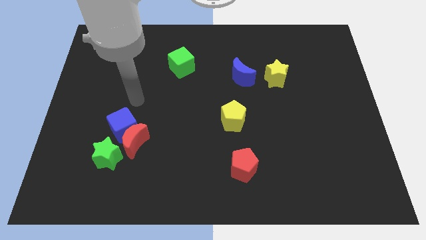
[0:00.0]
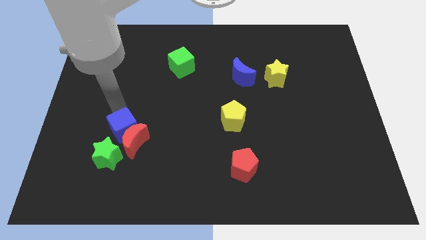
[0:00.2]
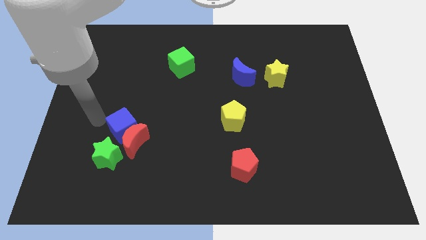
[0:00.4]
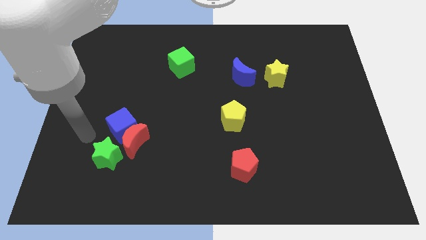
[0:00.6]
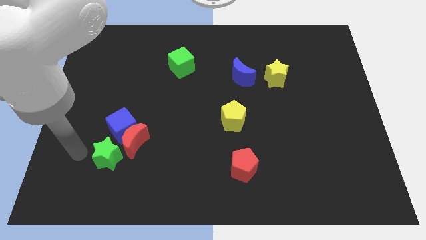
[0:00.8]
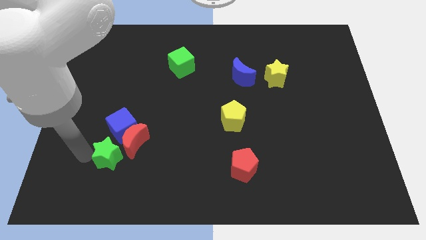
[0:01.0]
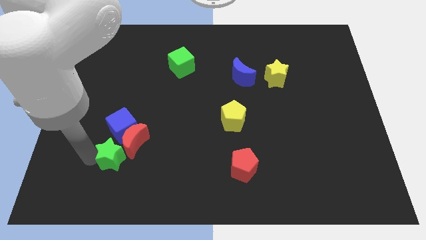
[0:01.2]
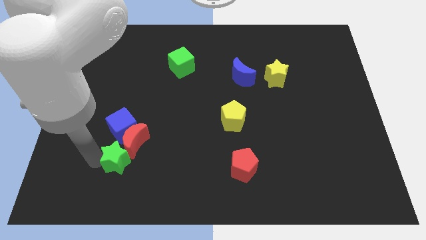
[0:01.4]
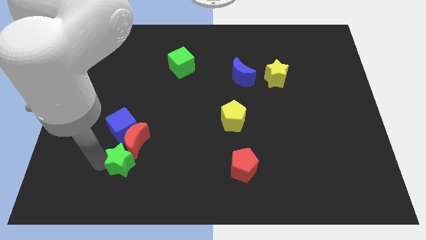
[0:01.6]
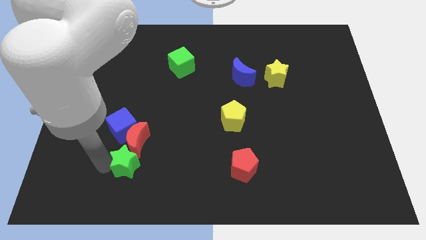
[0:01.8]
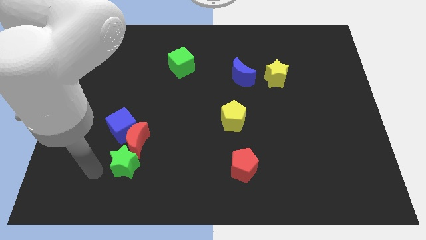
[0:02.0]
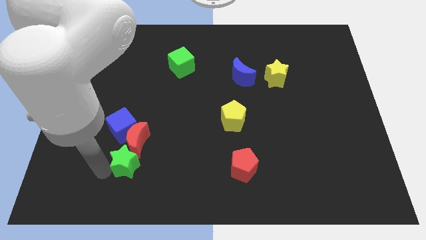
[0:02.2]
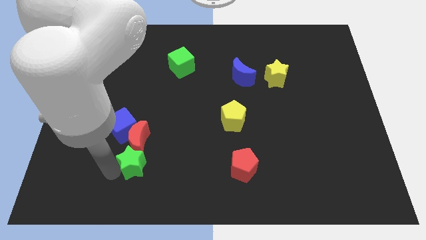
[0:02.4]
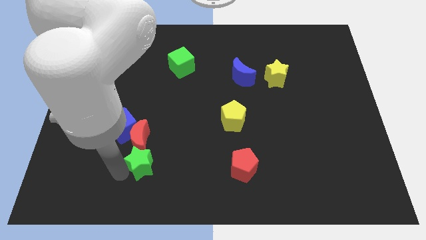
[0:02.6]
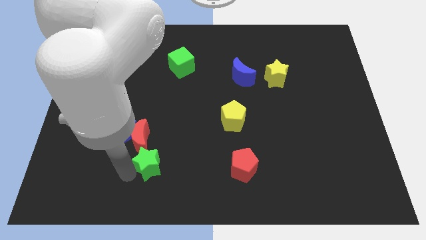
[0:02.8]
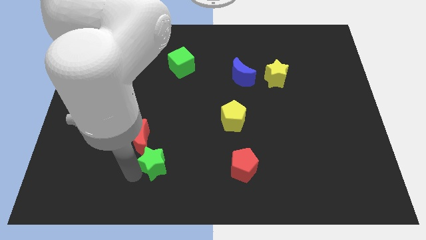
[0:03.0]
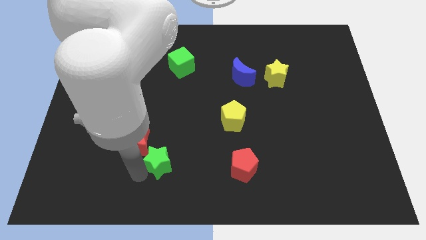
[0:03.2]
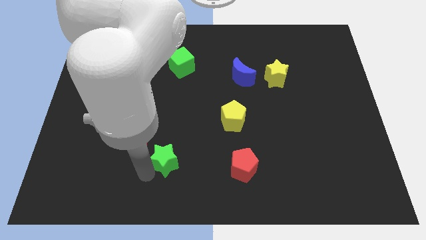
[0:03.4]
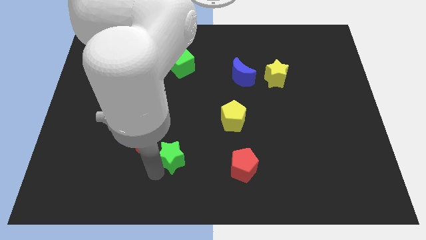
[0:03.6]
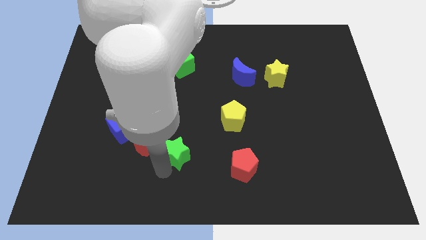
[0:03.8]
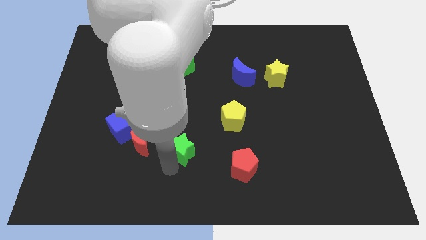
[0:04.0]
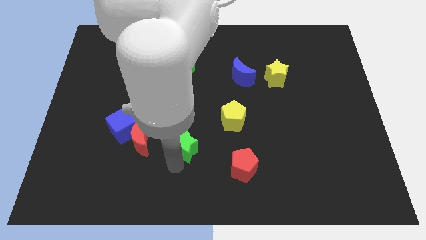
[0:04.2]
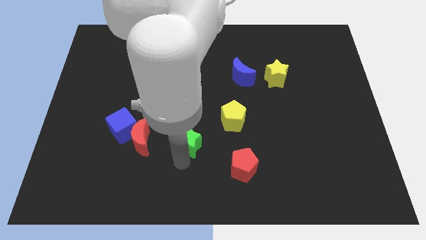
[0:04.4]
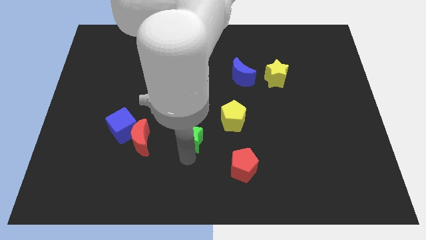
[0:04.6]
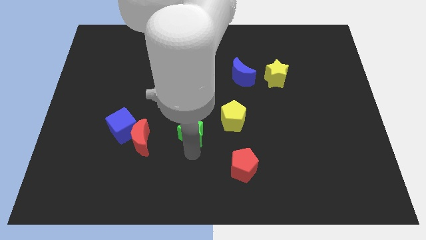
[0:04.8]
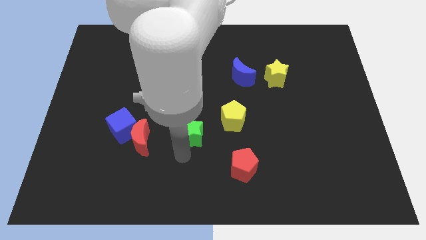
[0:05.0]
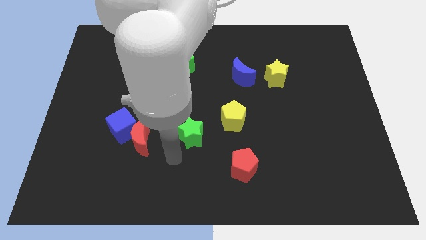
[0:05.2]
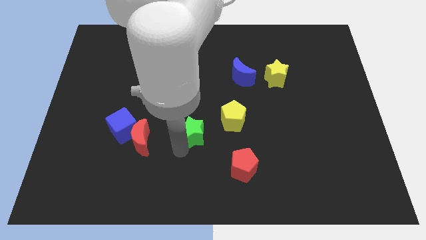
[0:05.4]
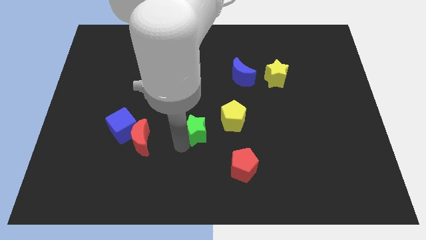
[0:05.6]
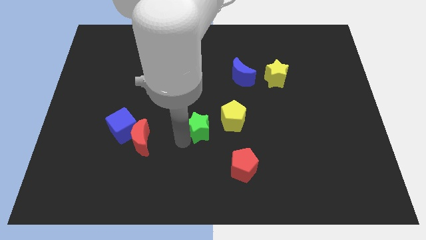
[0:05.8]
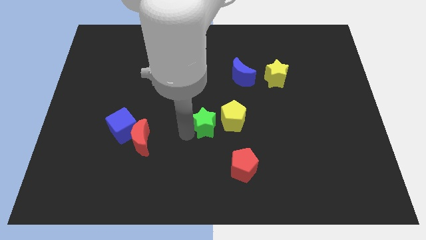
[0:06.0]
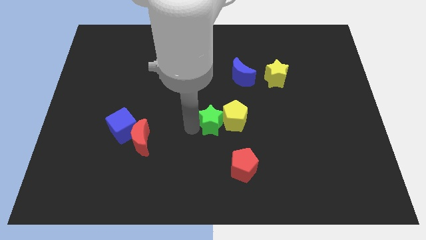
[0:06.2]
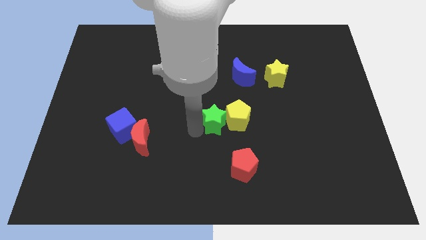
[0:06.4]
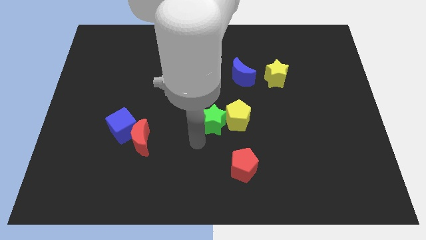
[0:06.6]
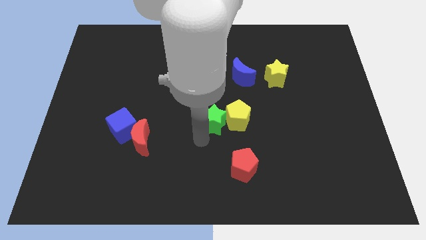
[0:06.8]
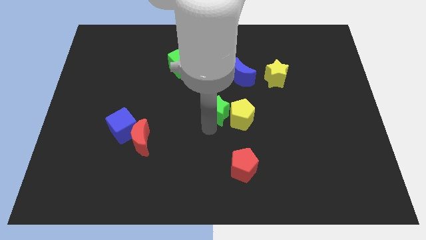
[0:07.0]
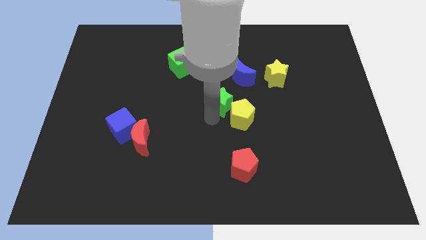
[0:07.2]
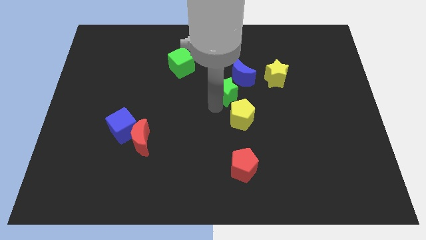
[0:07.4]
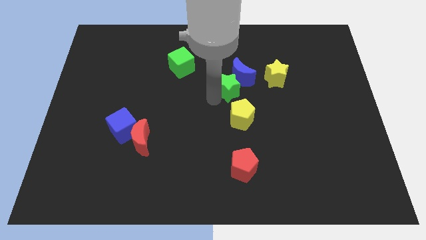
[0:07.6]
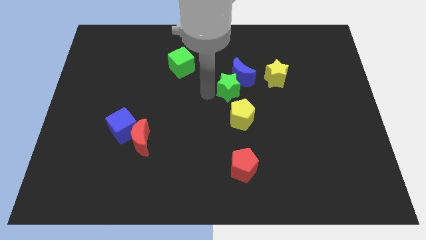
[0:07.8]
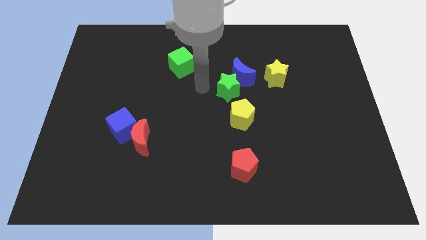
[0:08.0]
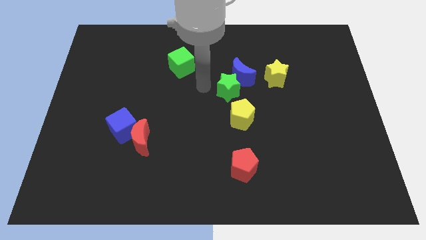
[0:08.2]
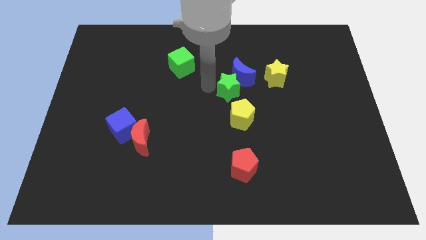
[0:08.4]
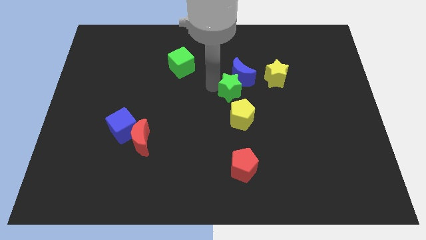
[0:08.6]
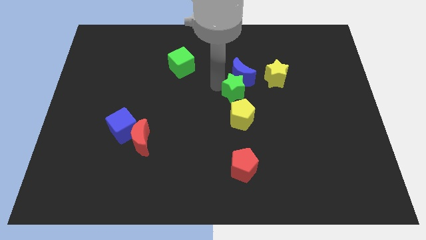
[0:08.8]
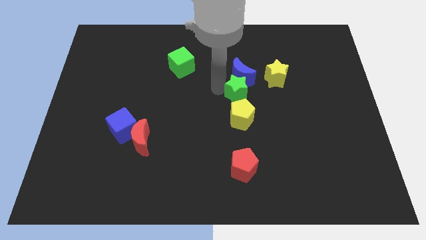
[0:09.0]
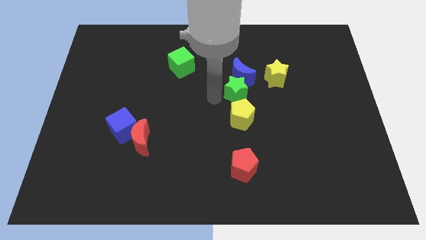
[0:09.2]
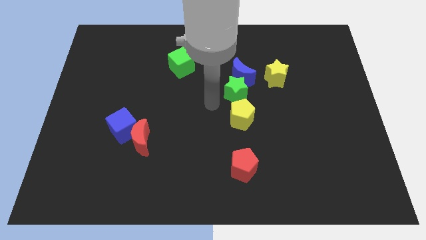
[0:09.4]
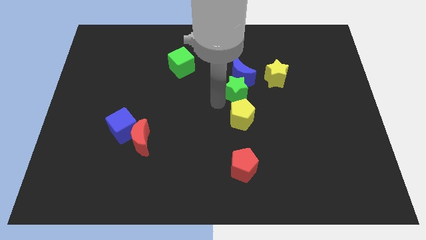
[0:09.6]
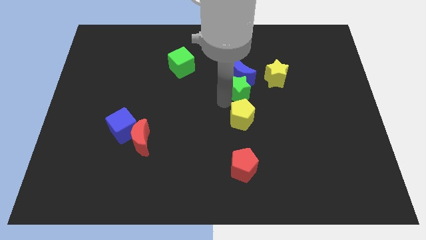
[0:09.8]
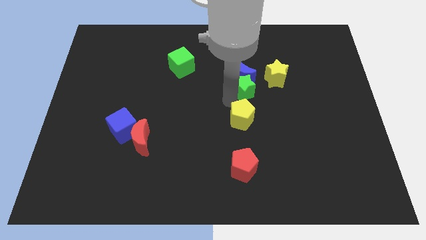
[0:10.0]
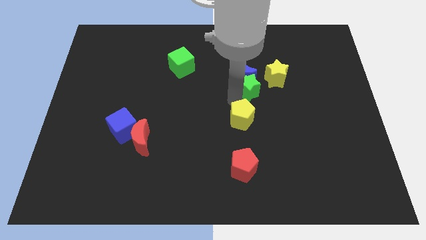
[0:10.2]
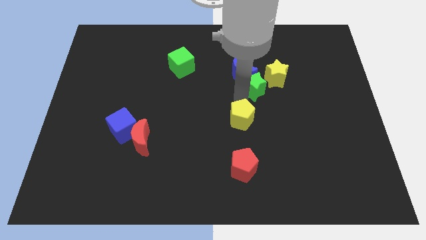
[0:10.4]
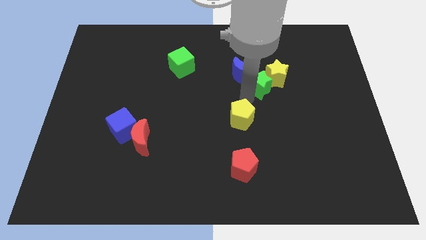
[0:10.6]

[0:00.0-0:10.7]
put the green star next to the yellow star

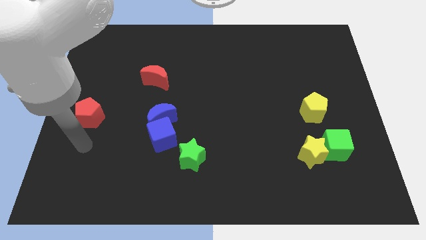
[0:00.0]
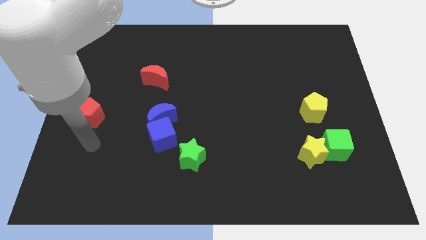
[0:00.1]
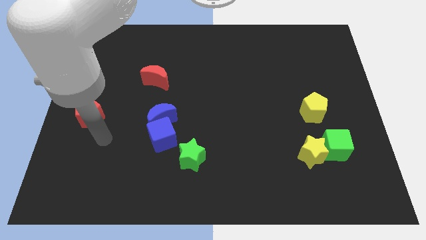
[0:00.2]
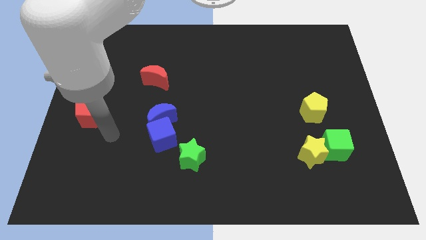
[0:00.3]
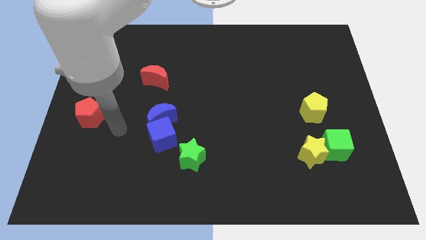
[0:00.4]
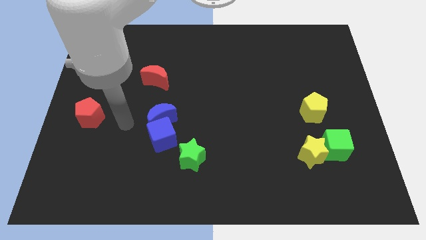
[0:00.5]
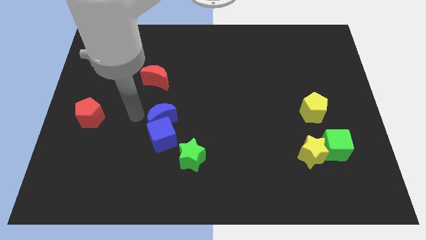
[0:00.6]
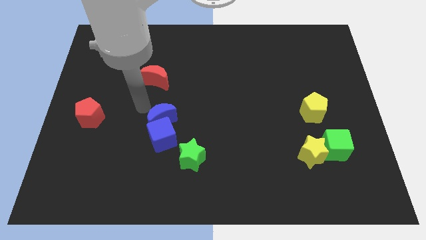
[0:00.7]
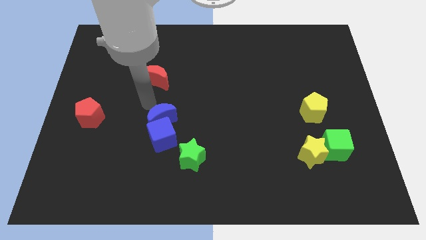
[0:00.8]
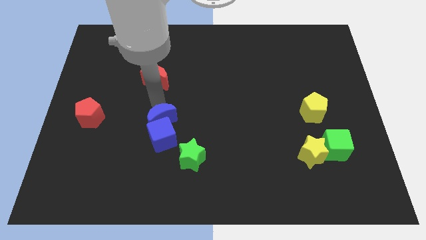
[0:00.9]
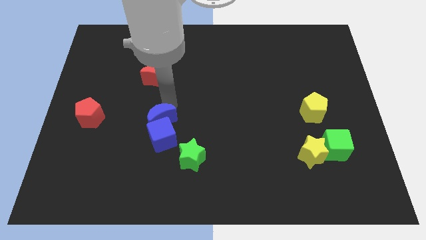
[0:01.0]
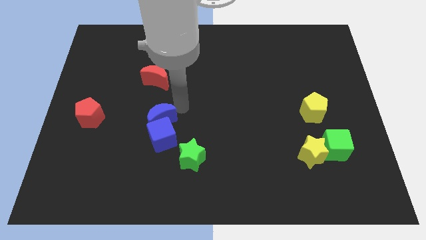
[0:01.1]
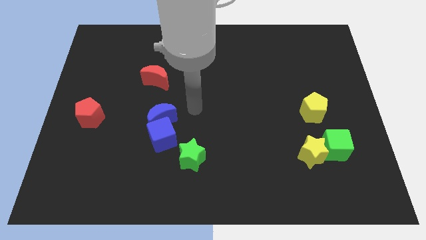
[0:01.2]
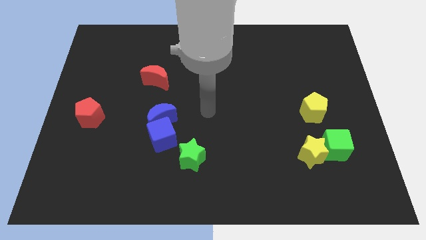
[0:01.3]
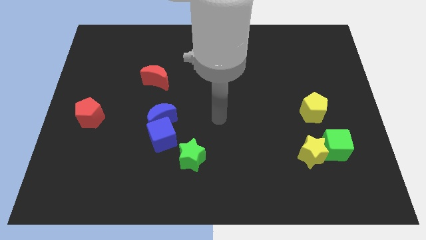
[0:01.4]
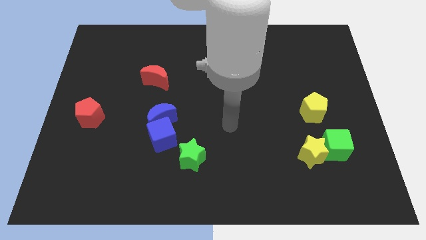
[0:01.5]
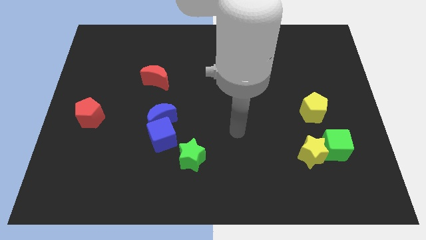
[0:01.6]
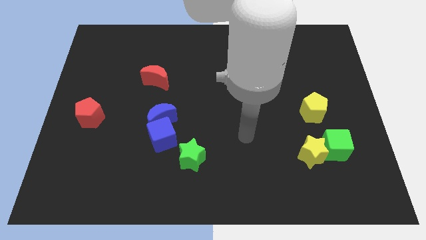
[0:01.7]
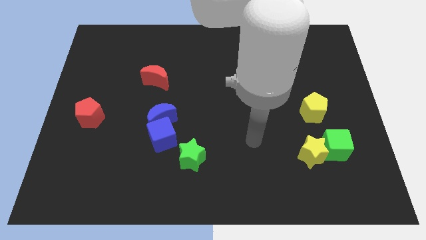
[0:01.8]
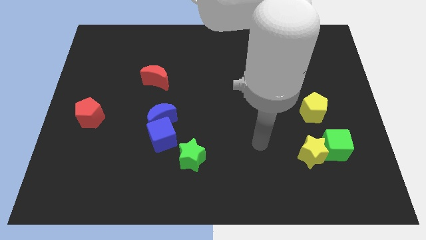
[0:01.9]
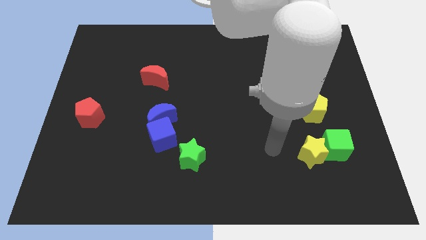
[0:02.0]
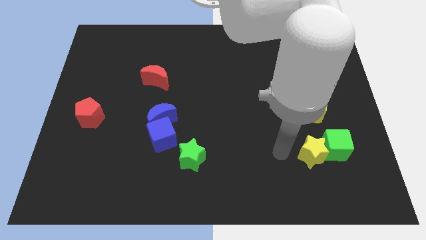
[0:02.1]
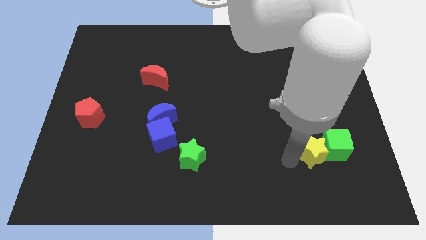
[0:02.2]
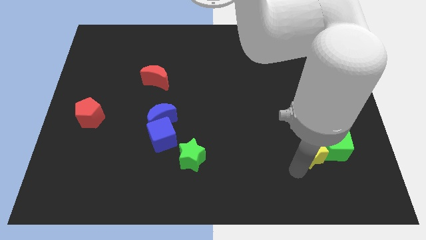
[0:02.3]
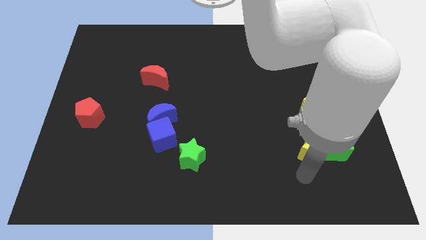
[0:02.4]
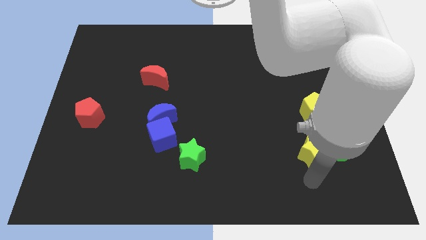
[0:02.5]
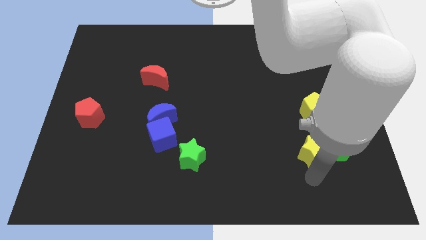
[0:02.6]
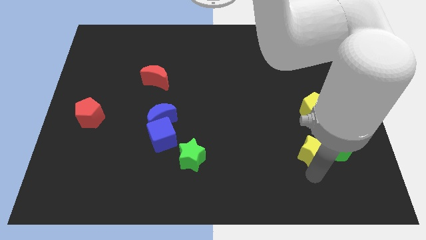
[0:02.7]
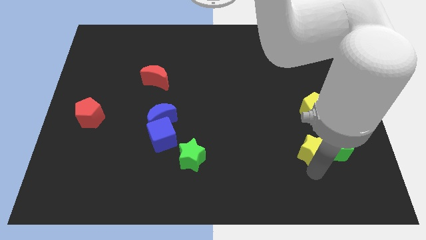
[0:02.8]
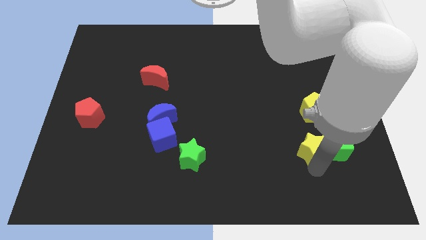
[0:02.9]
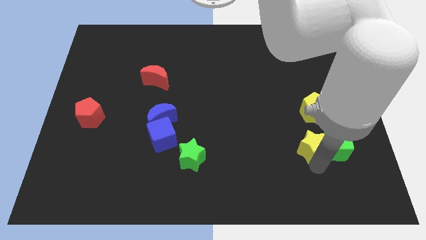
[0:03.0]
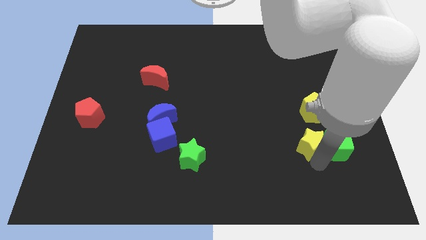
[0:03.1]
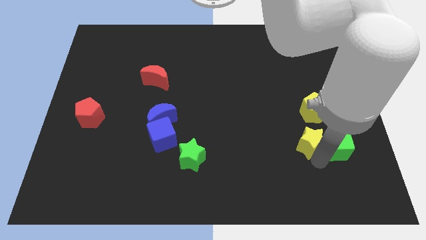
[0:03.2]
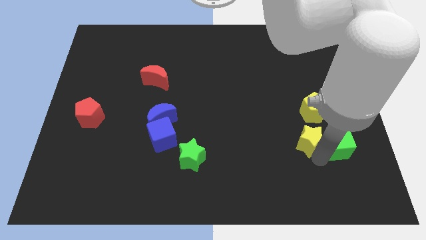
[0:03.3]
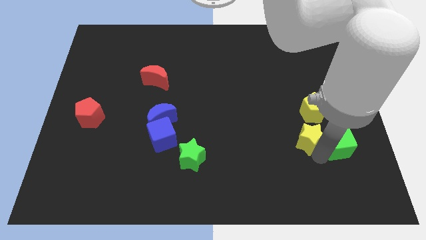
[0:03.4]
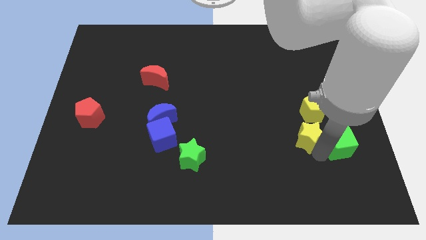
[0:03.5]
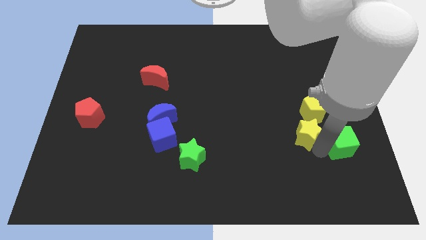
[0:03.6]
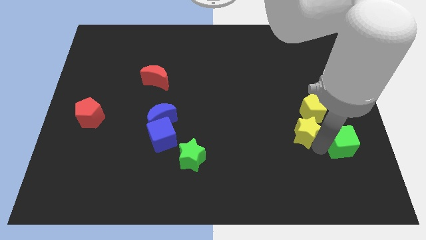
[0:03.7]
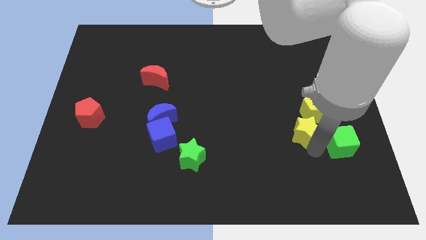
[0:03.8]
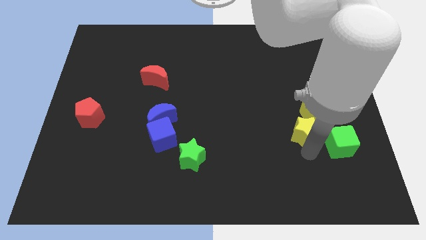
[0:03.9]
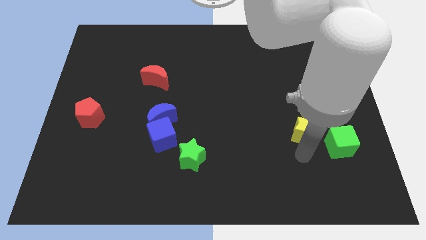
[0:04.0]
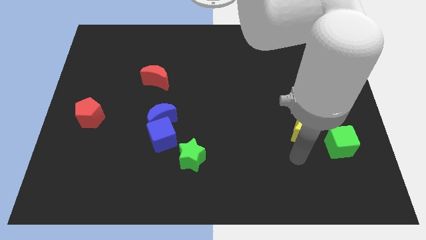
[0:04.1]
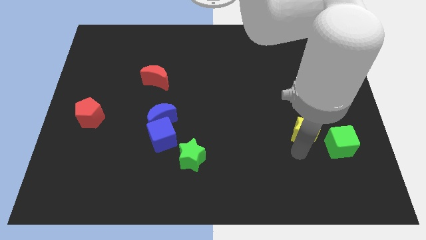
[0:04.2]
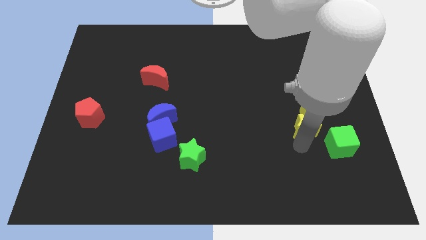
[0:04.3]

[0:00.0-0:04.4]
put the yellow star towards the yellow pentagon
